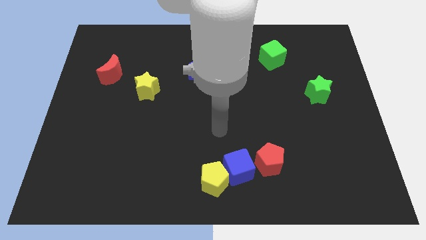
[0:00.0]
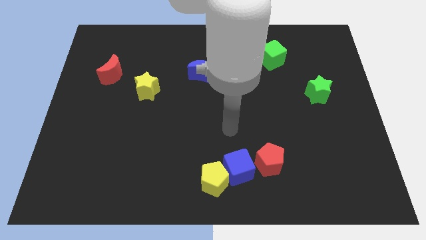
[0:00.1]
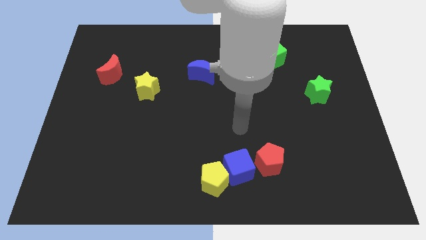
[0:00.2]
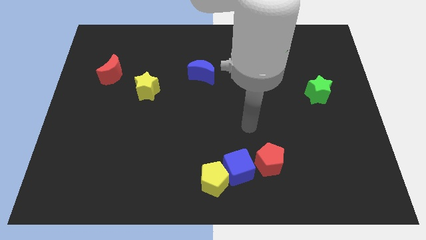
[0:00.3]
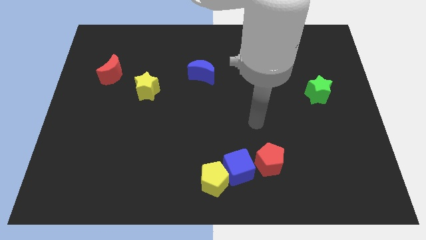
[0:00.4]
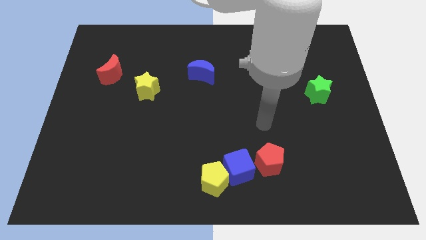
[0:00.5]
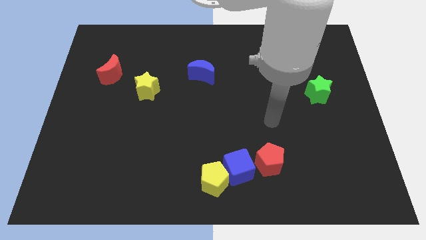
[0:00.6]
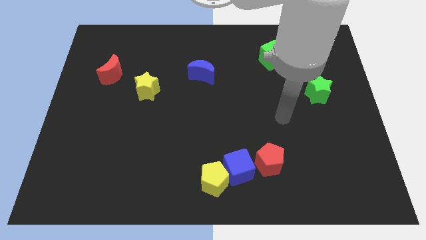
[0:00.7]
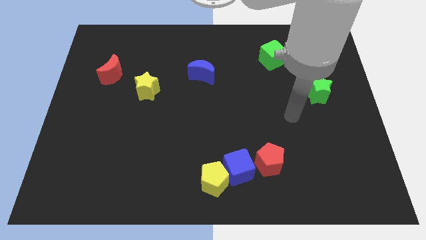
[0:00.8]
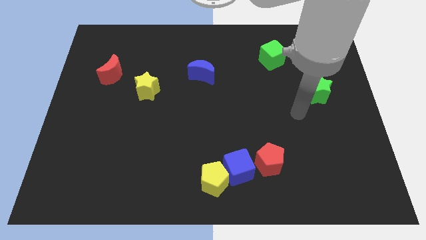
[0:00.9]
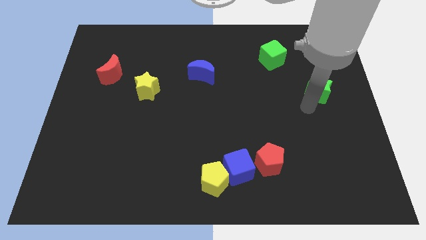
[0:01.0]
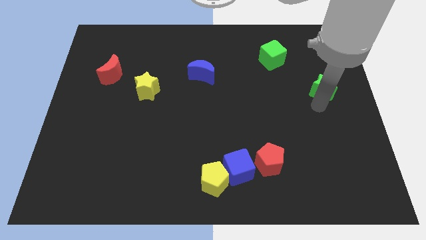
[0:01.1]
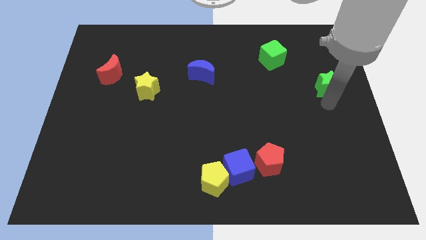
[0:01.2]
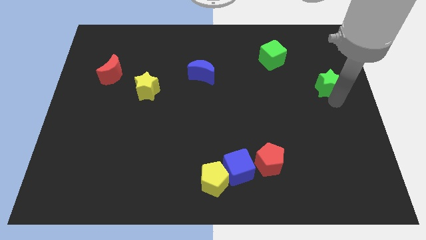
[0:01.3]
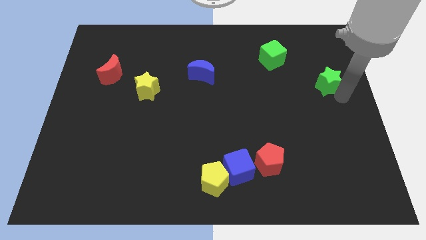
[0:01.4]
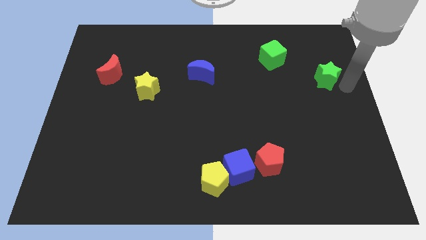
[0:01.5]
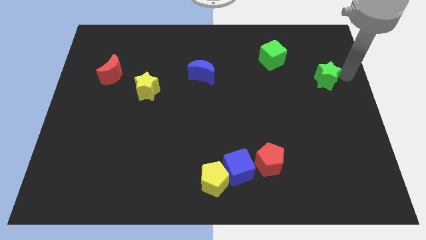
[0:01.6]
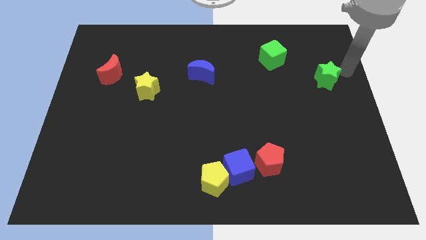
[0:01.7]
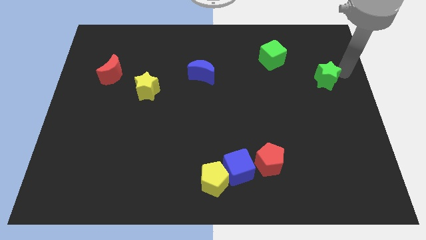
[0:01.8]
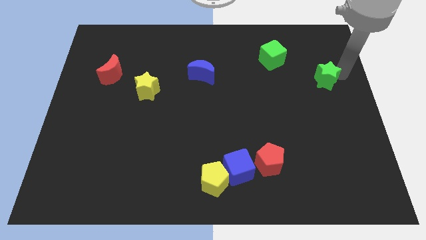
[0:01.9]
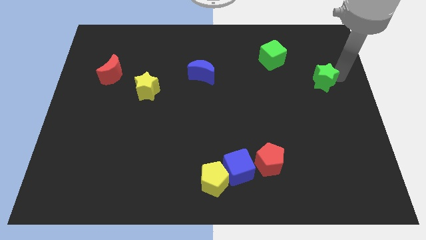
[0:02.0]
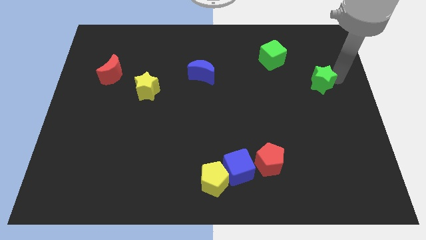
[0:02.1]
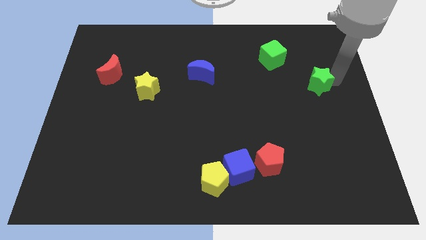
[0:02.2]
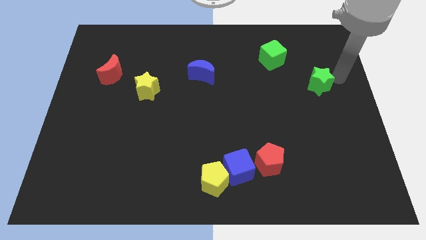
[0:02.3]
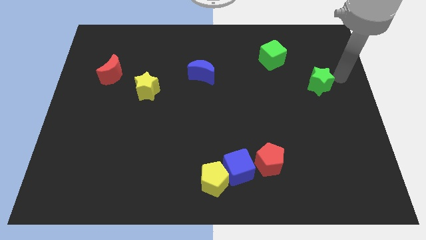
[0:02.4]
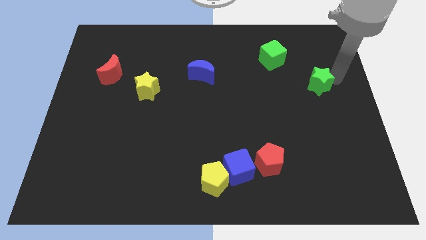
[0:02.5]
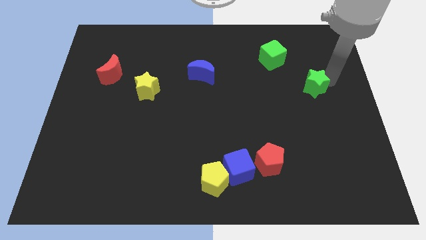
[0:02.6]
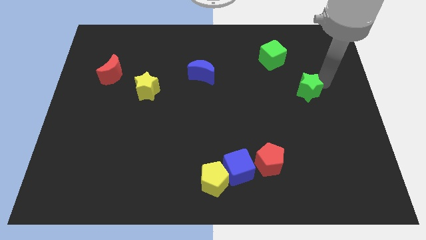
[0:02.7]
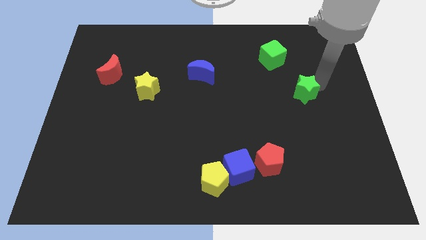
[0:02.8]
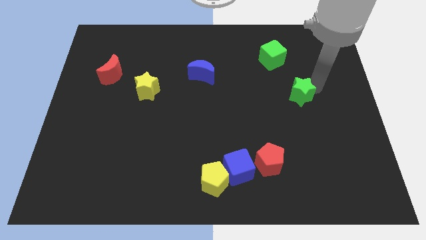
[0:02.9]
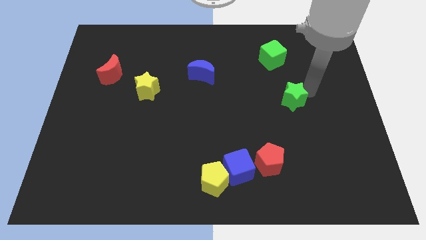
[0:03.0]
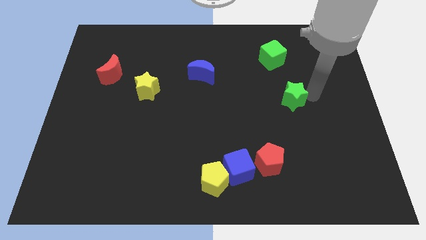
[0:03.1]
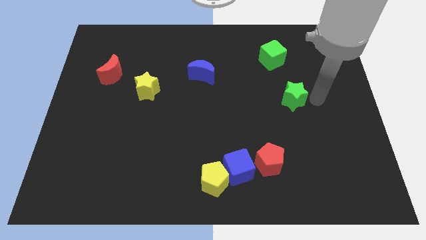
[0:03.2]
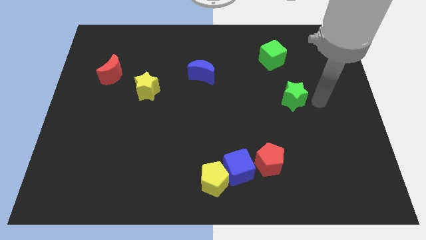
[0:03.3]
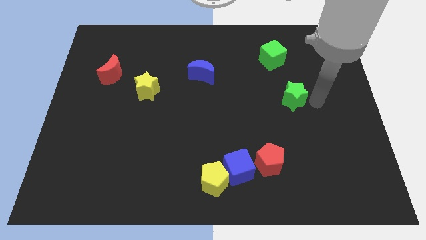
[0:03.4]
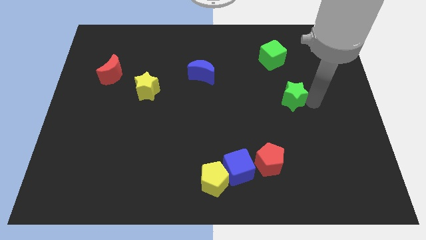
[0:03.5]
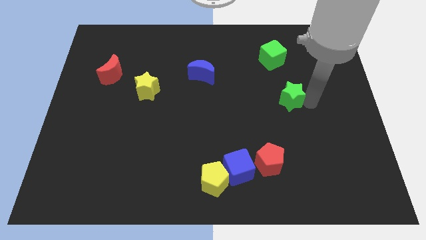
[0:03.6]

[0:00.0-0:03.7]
push the green star left a little bit

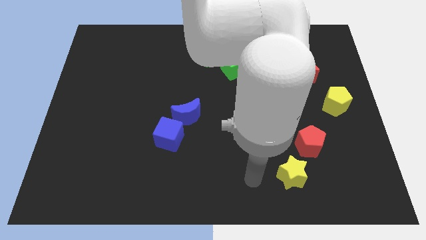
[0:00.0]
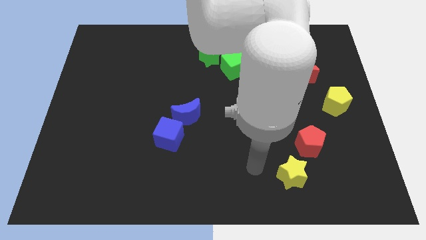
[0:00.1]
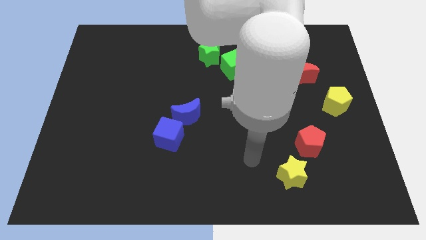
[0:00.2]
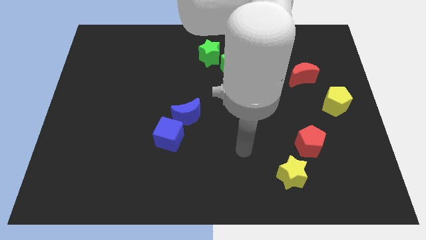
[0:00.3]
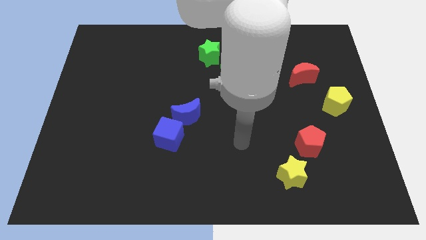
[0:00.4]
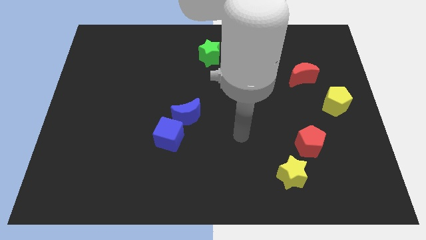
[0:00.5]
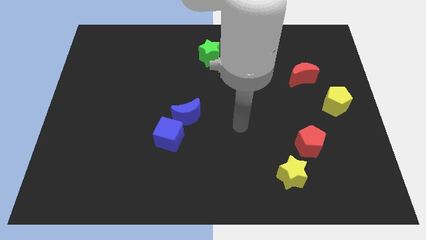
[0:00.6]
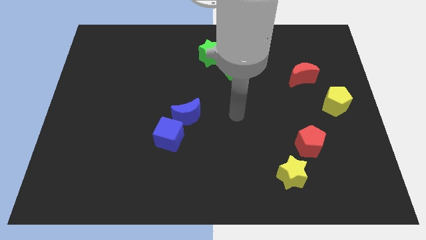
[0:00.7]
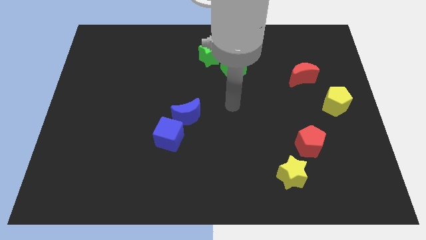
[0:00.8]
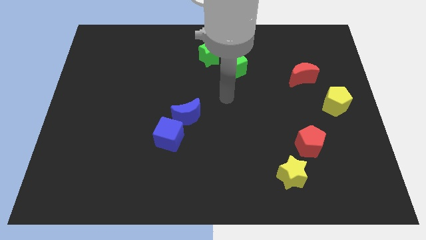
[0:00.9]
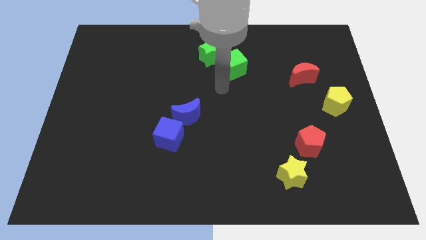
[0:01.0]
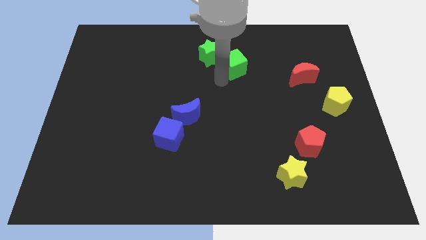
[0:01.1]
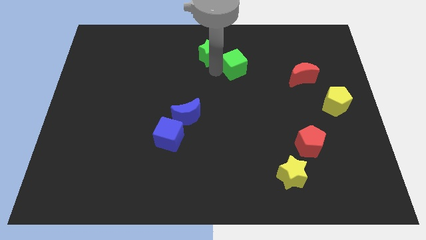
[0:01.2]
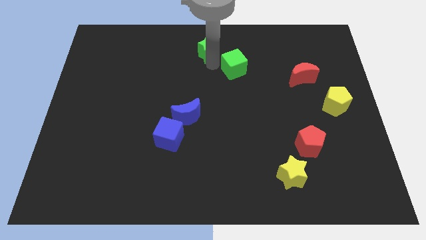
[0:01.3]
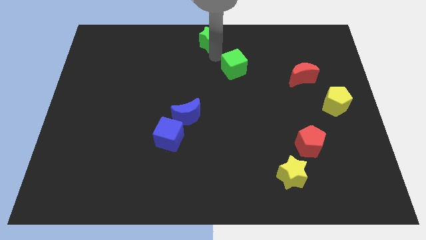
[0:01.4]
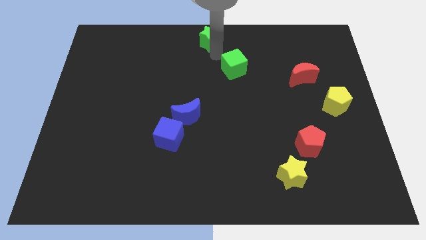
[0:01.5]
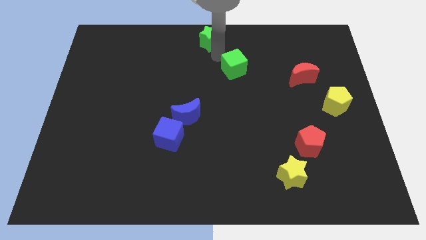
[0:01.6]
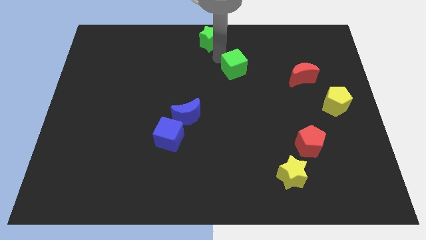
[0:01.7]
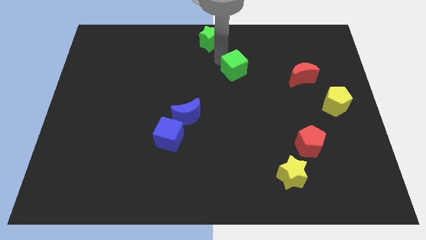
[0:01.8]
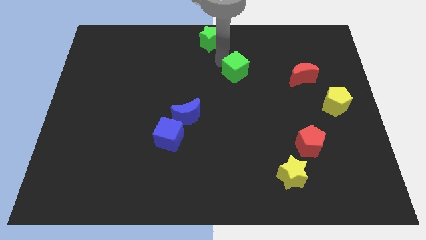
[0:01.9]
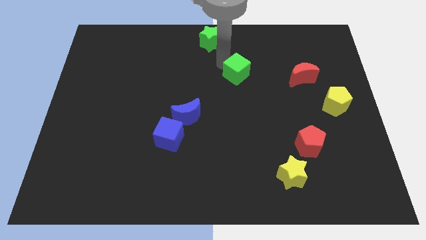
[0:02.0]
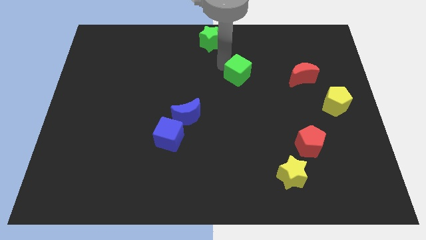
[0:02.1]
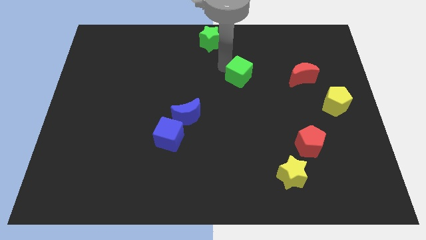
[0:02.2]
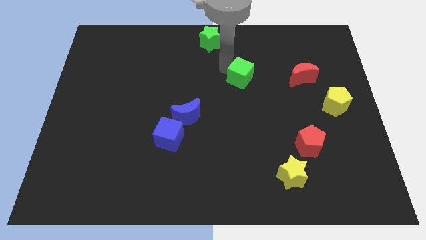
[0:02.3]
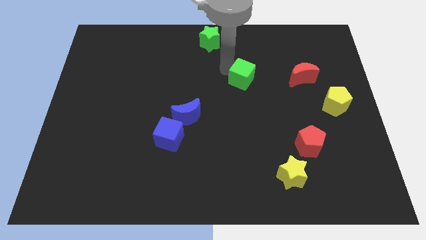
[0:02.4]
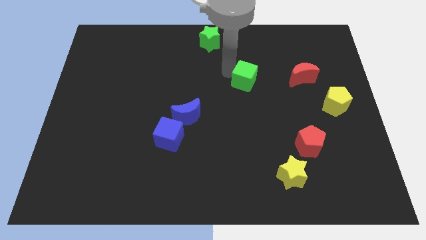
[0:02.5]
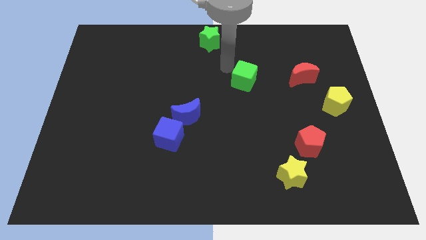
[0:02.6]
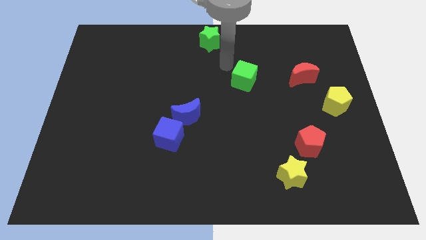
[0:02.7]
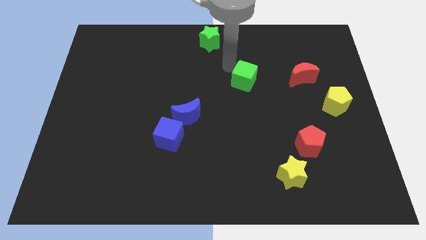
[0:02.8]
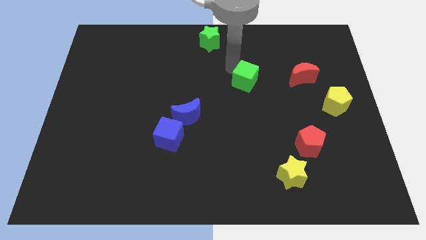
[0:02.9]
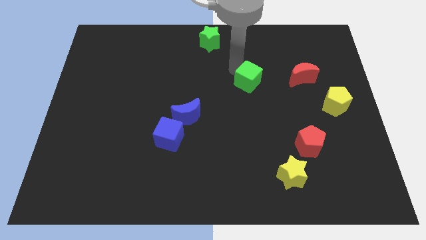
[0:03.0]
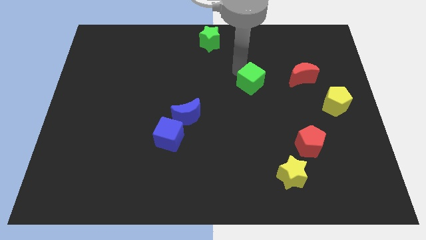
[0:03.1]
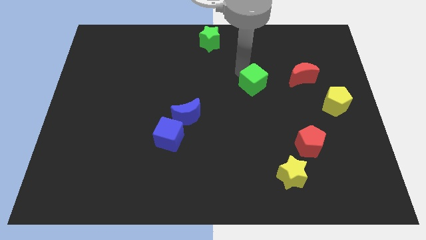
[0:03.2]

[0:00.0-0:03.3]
slightly slide the green cube downwards and to the right

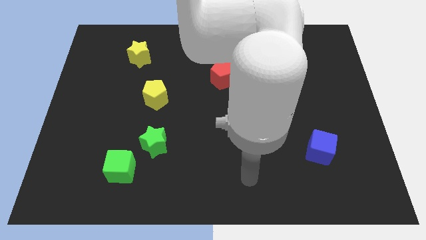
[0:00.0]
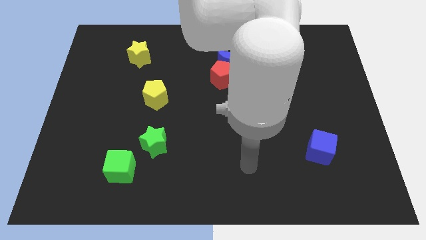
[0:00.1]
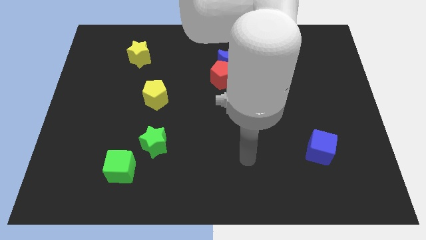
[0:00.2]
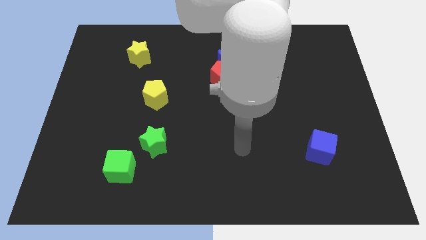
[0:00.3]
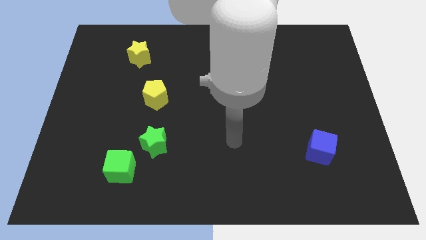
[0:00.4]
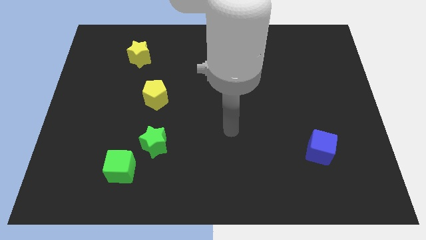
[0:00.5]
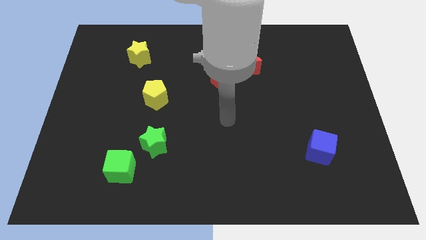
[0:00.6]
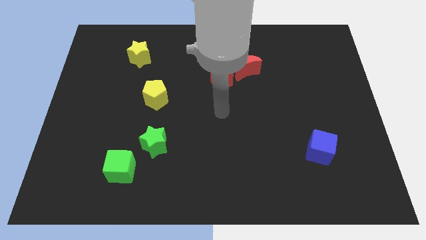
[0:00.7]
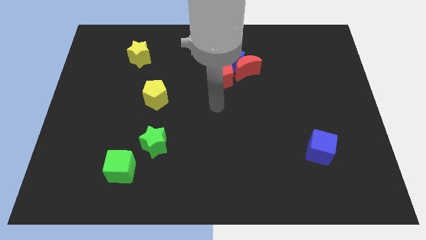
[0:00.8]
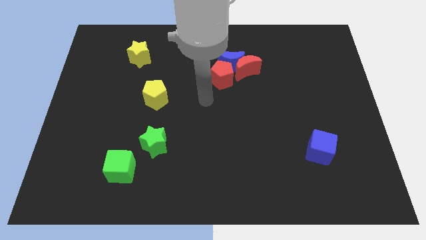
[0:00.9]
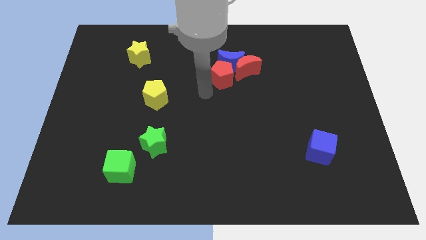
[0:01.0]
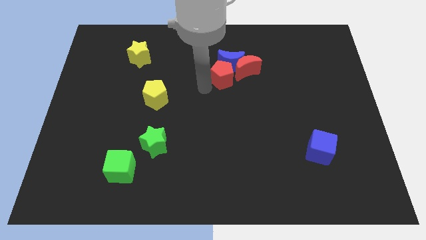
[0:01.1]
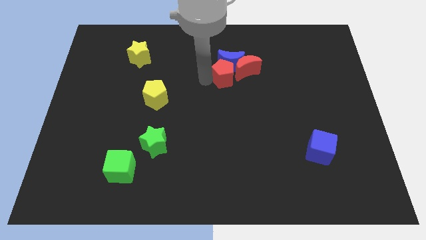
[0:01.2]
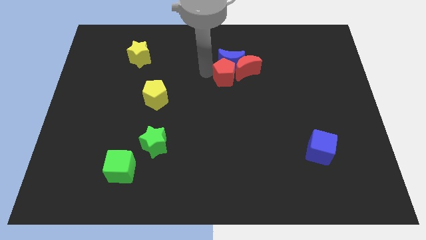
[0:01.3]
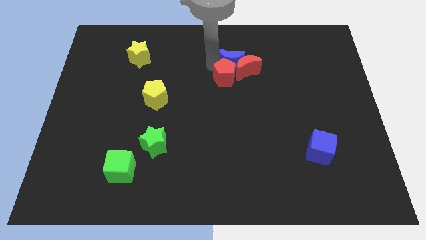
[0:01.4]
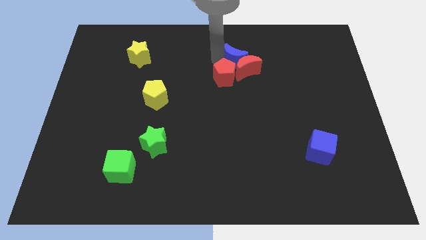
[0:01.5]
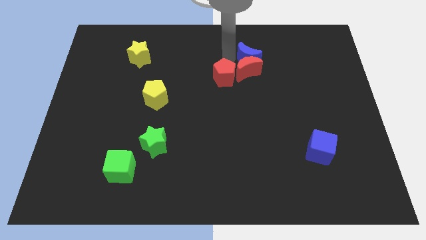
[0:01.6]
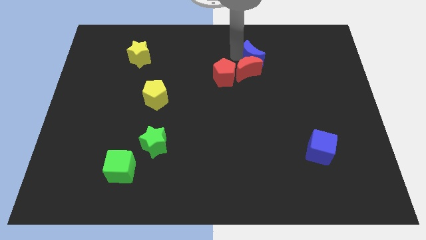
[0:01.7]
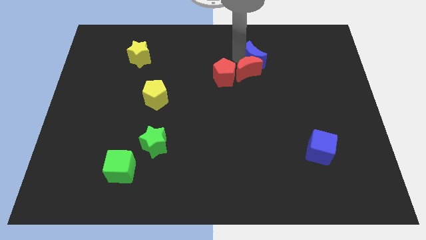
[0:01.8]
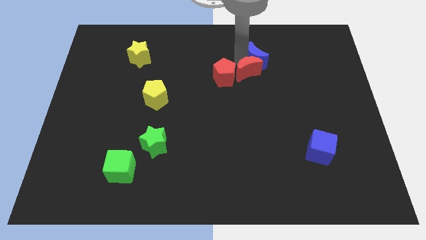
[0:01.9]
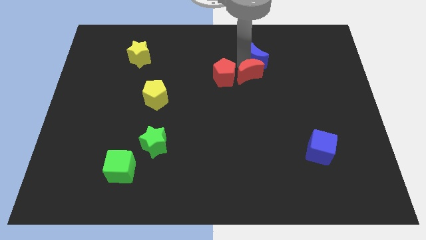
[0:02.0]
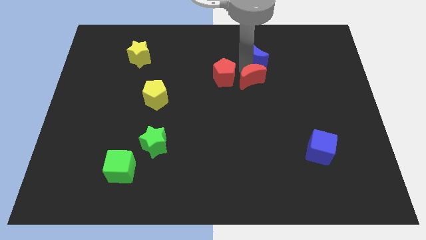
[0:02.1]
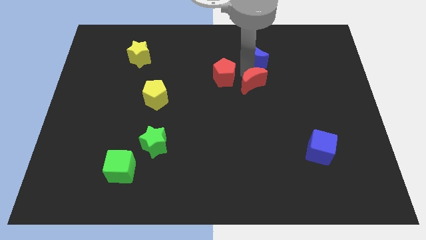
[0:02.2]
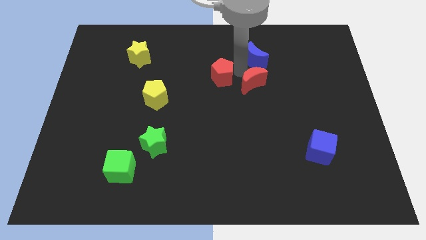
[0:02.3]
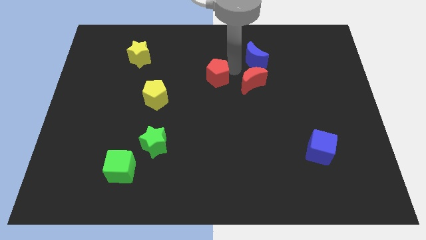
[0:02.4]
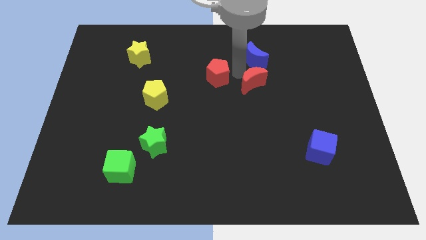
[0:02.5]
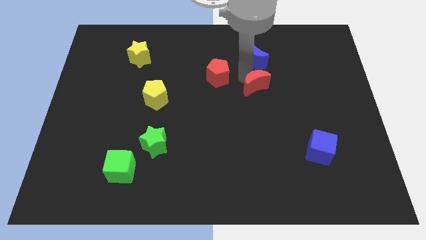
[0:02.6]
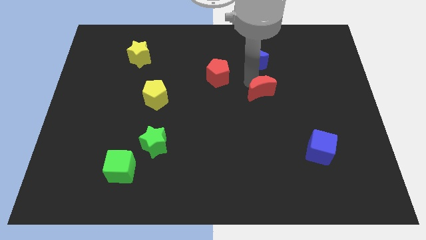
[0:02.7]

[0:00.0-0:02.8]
slightly push the red moon down and right
